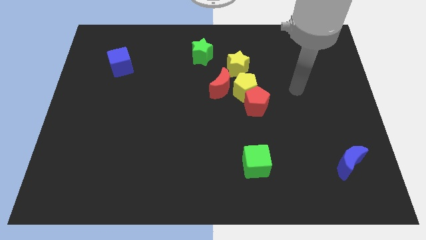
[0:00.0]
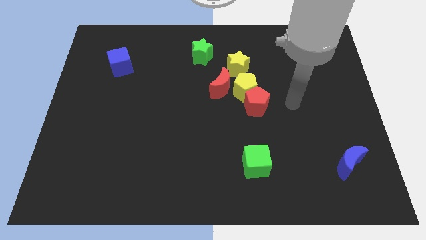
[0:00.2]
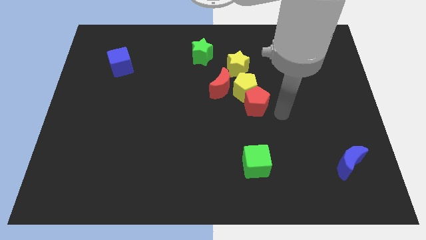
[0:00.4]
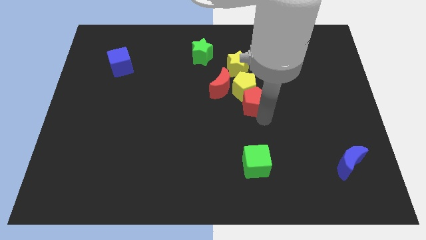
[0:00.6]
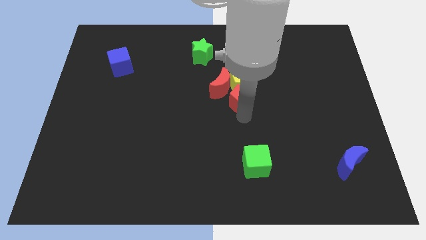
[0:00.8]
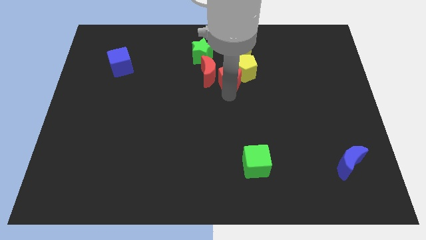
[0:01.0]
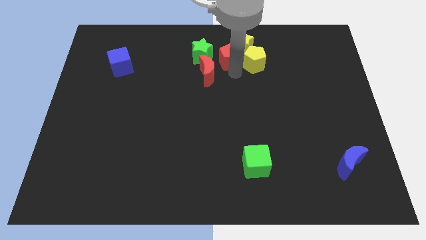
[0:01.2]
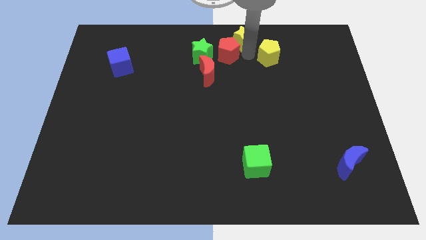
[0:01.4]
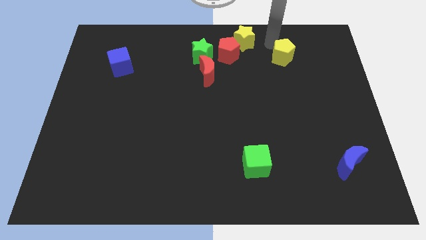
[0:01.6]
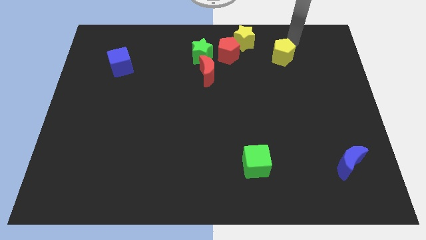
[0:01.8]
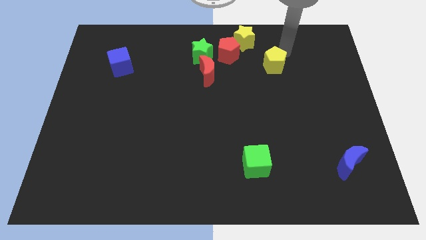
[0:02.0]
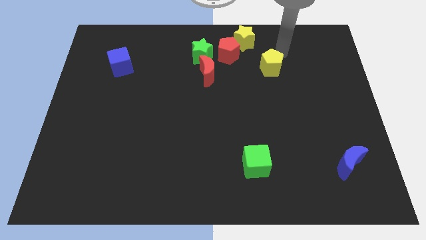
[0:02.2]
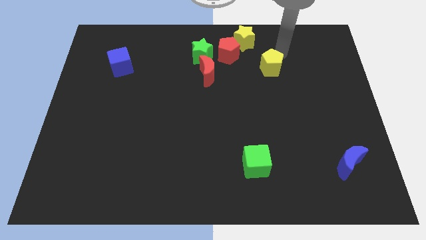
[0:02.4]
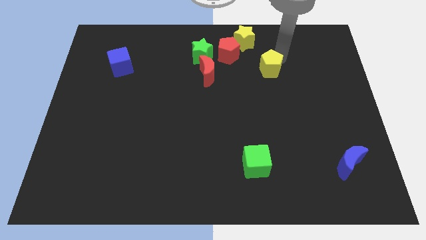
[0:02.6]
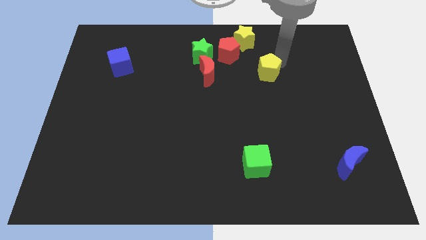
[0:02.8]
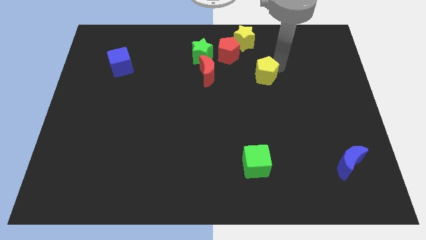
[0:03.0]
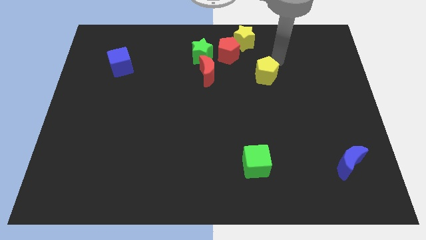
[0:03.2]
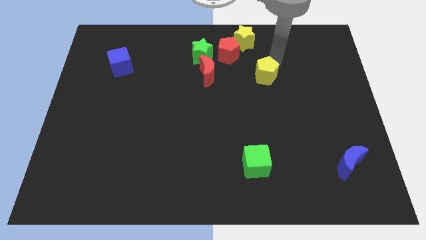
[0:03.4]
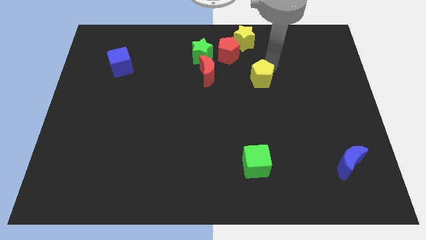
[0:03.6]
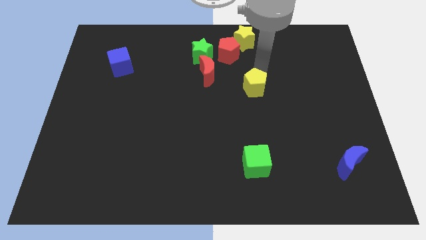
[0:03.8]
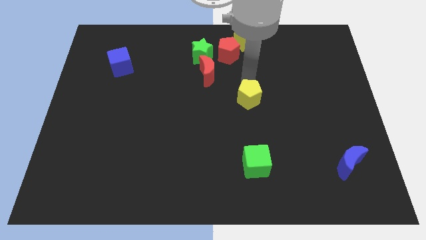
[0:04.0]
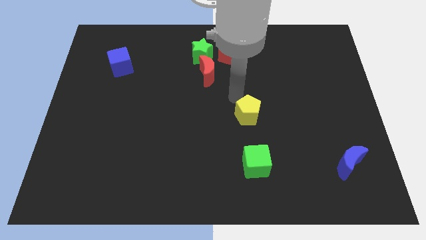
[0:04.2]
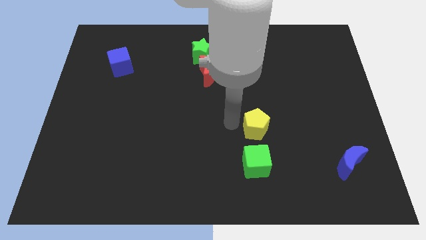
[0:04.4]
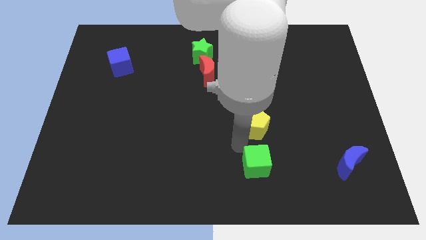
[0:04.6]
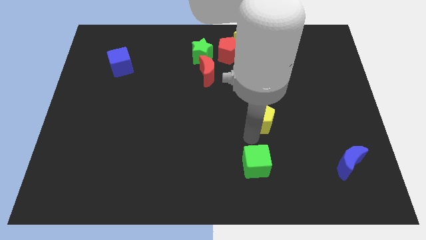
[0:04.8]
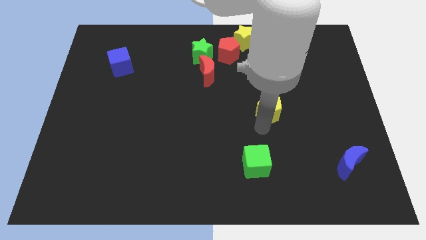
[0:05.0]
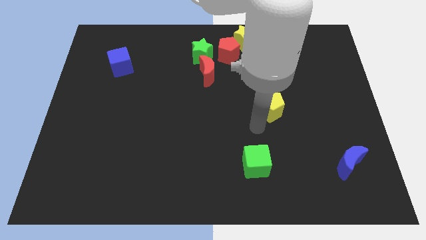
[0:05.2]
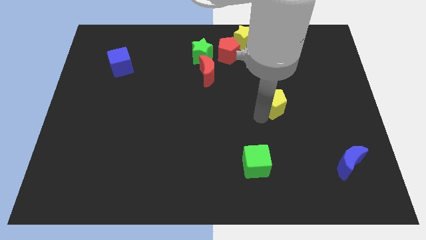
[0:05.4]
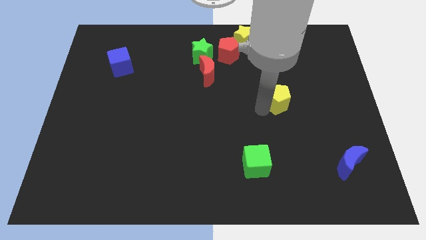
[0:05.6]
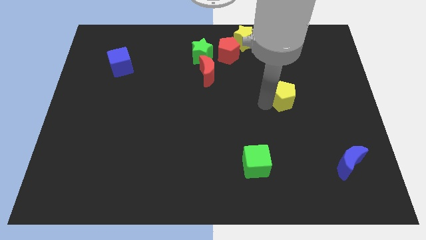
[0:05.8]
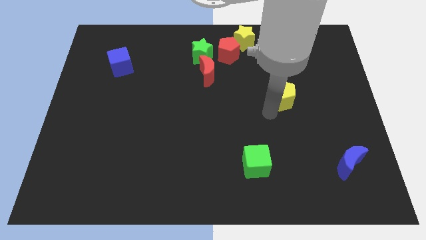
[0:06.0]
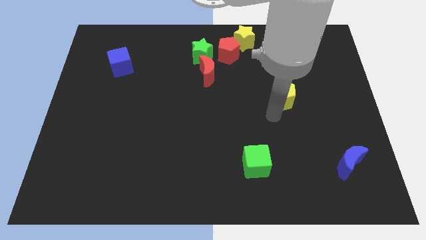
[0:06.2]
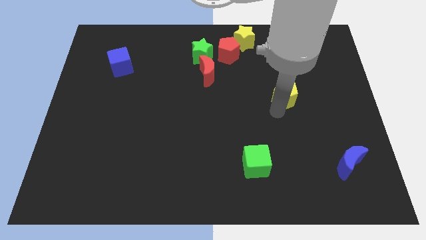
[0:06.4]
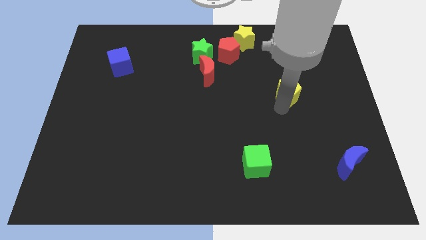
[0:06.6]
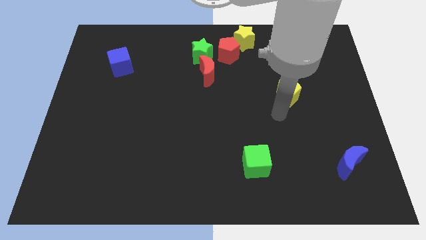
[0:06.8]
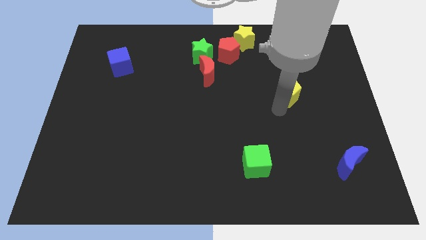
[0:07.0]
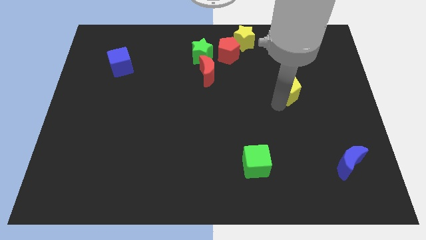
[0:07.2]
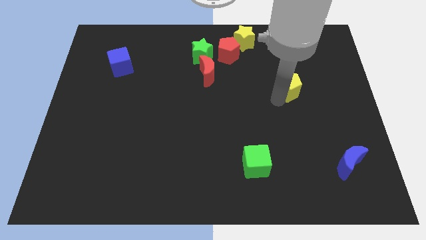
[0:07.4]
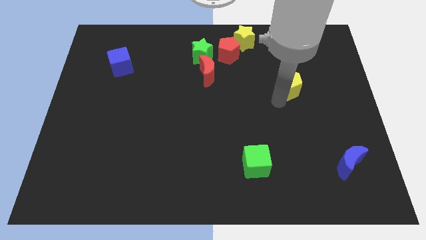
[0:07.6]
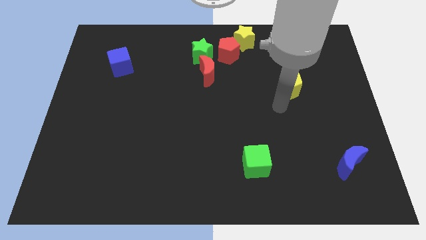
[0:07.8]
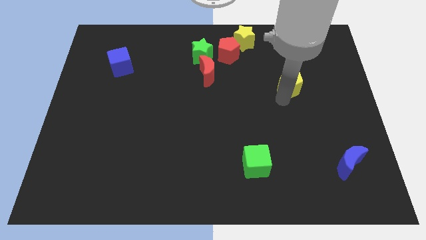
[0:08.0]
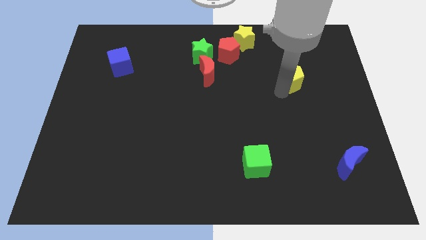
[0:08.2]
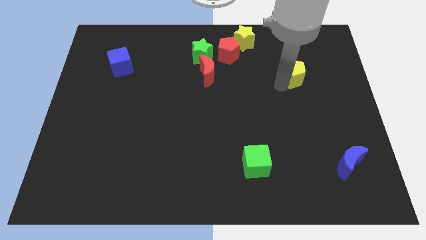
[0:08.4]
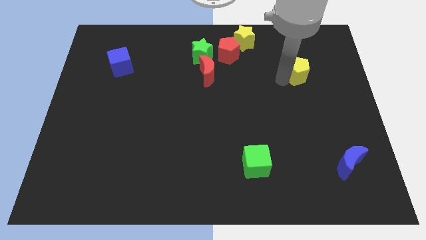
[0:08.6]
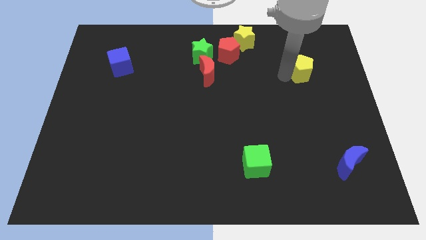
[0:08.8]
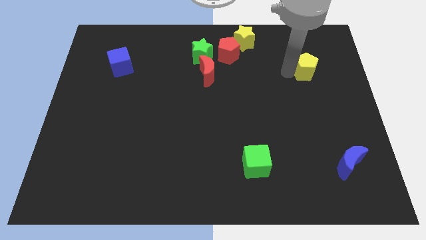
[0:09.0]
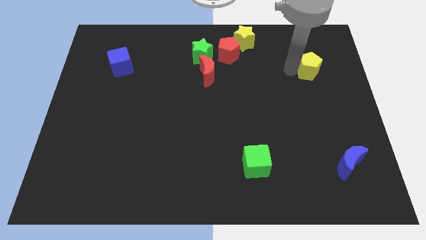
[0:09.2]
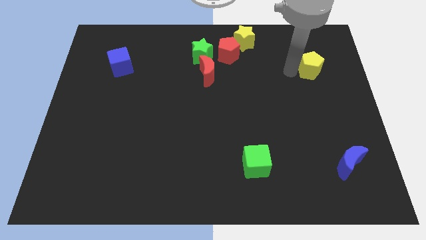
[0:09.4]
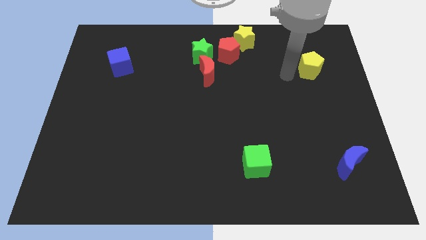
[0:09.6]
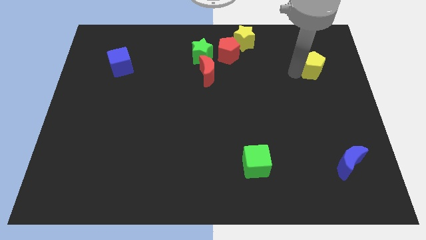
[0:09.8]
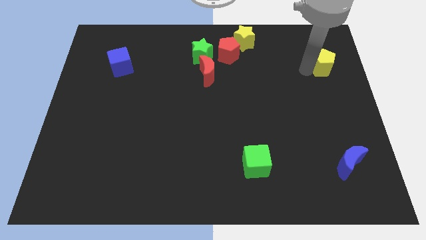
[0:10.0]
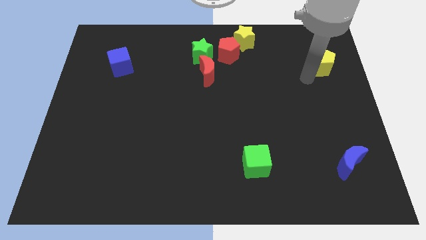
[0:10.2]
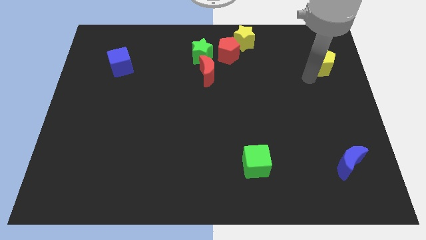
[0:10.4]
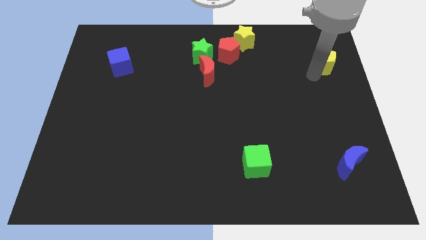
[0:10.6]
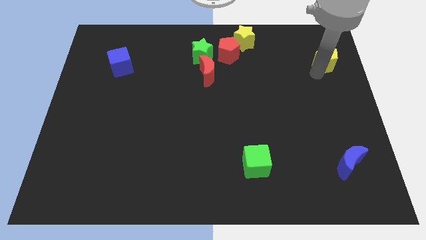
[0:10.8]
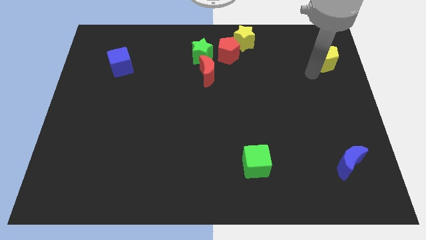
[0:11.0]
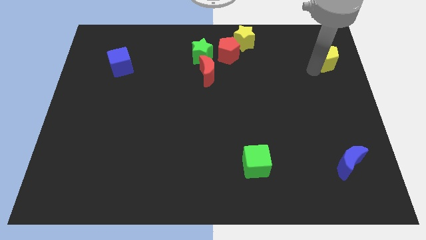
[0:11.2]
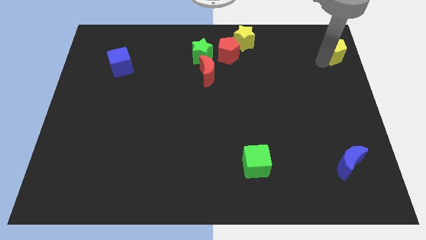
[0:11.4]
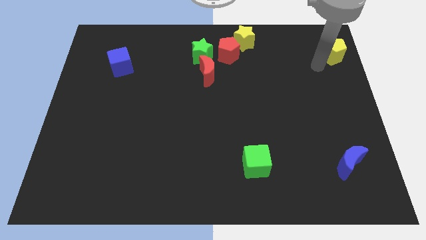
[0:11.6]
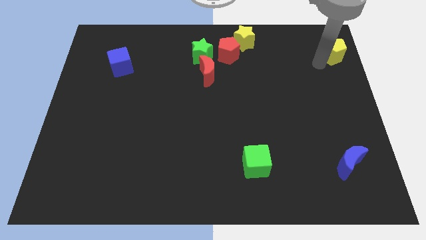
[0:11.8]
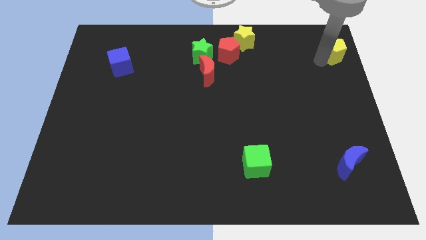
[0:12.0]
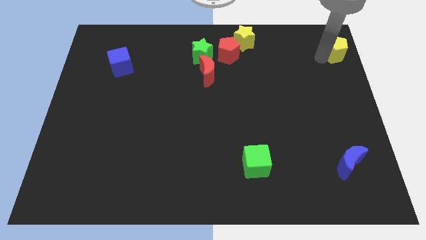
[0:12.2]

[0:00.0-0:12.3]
push the yellow pentagon to the upper right corner

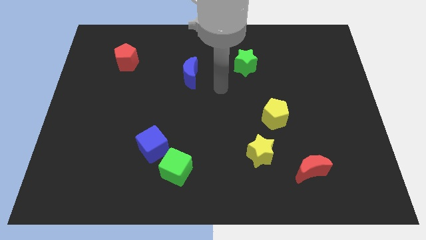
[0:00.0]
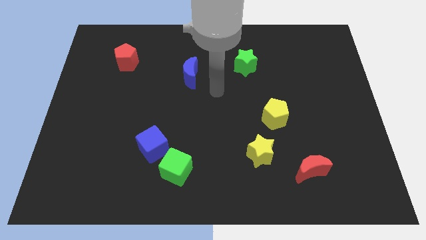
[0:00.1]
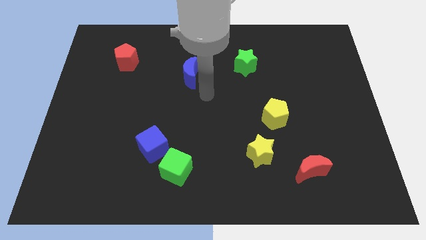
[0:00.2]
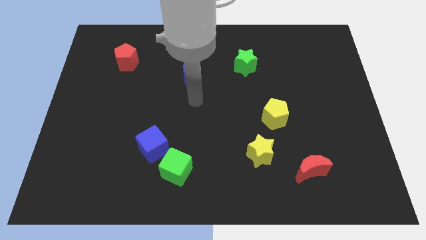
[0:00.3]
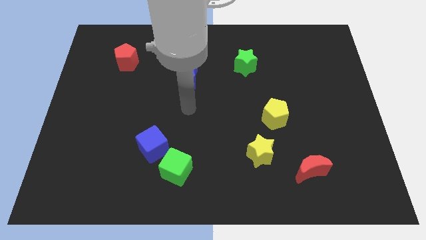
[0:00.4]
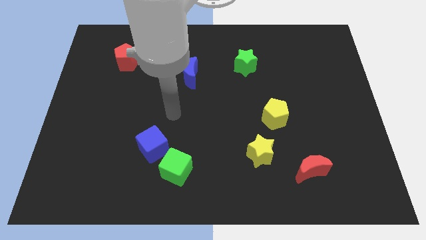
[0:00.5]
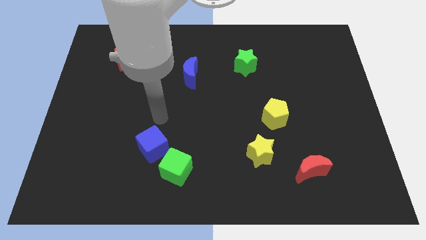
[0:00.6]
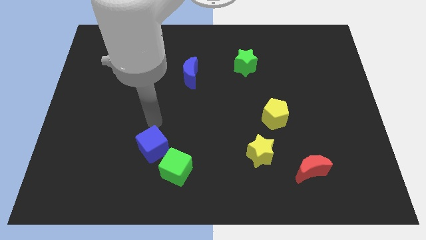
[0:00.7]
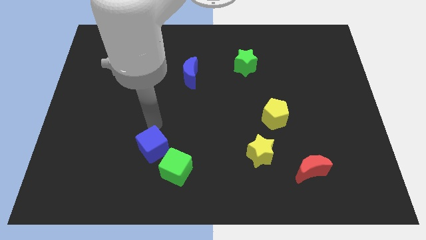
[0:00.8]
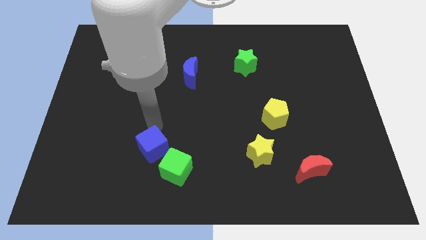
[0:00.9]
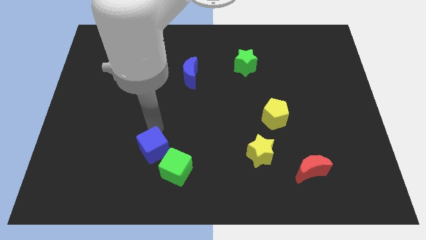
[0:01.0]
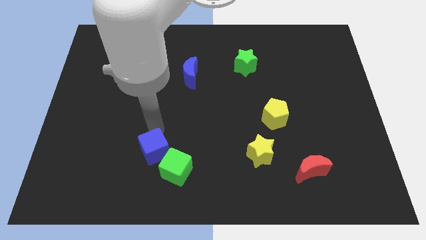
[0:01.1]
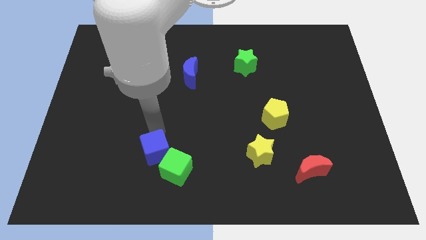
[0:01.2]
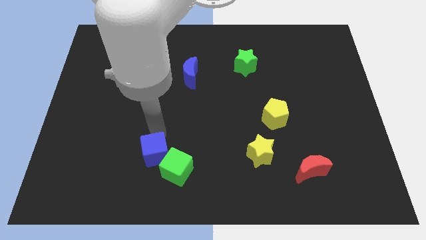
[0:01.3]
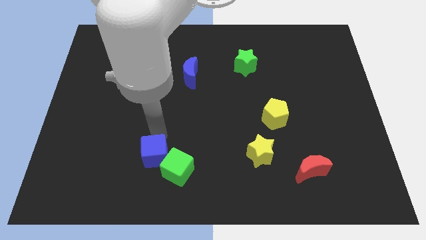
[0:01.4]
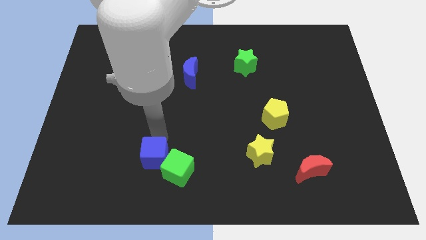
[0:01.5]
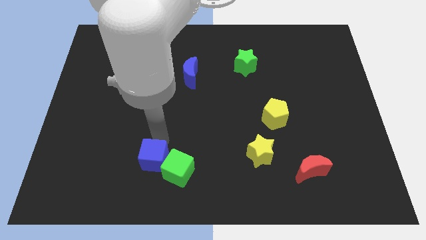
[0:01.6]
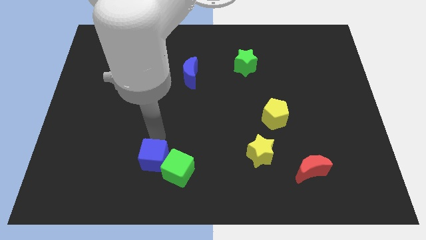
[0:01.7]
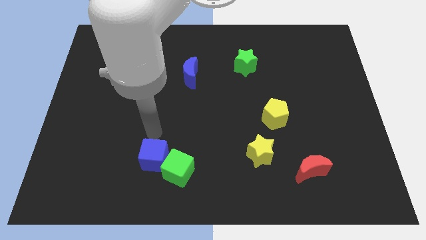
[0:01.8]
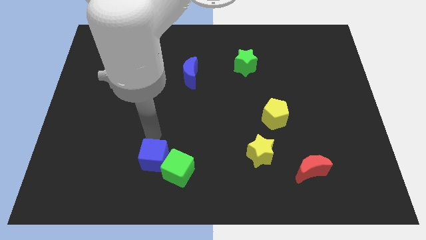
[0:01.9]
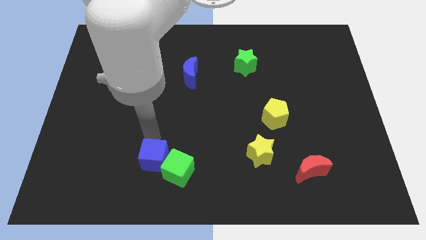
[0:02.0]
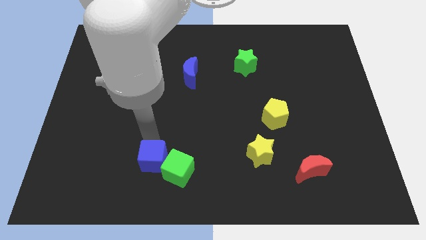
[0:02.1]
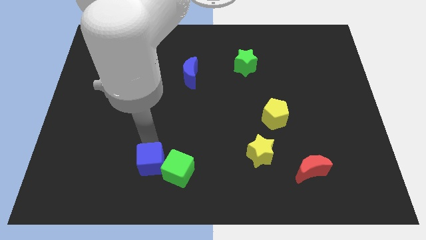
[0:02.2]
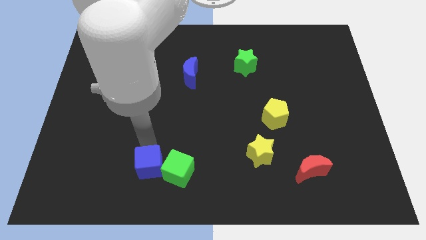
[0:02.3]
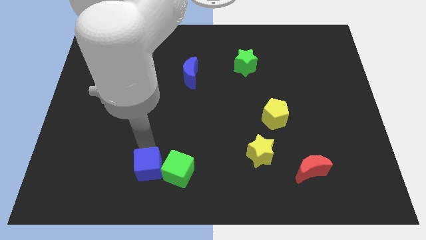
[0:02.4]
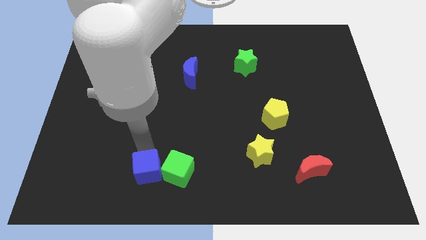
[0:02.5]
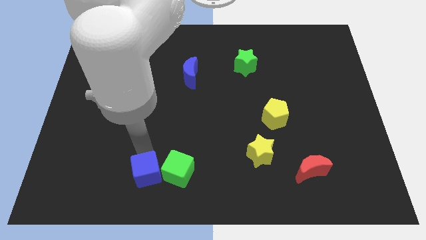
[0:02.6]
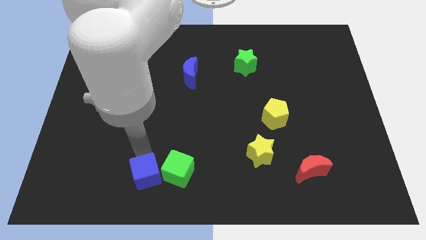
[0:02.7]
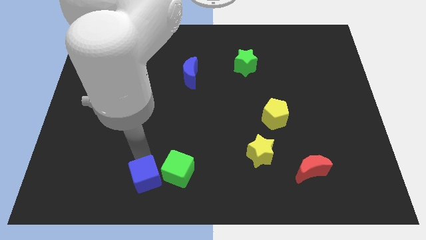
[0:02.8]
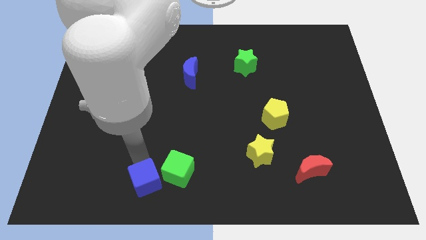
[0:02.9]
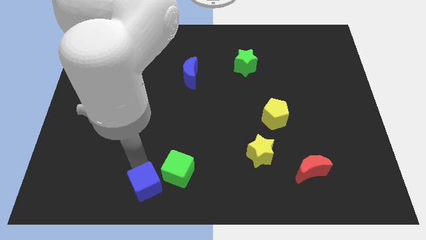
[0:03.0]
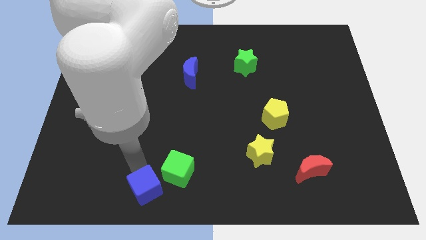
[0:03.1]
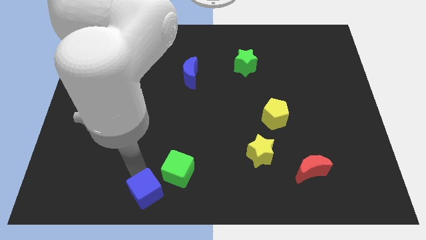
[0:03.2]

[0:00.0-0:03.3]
put the blue cube to the bottom side
